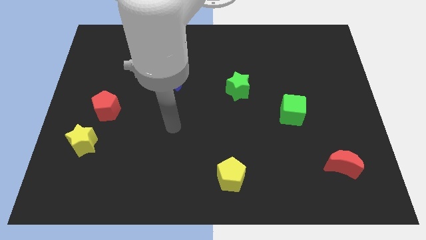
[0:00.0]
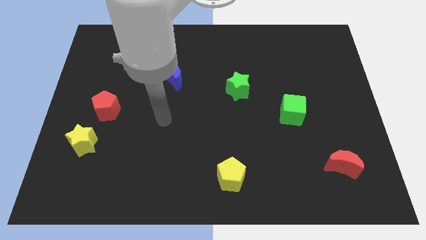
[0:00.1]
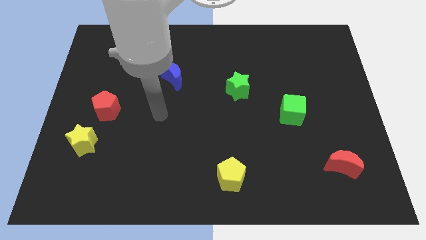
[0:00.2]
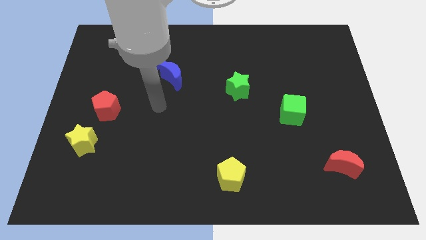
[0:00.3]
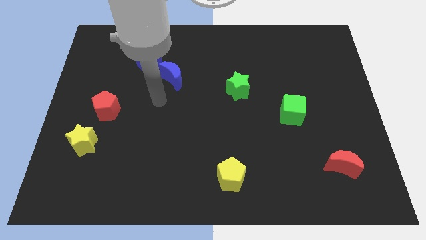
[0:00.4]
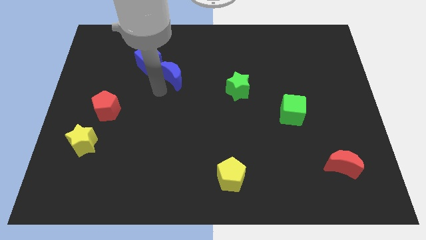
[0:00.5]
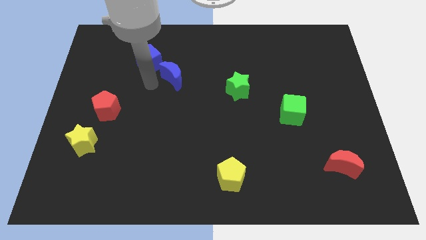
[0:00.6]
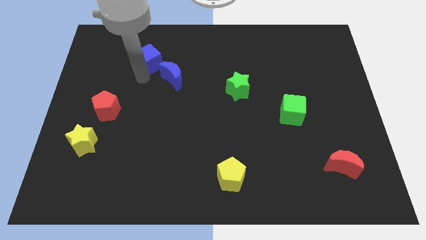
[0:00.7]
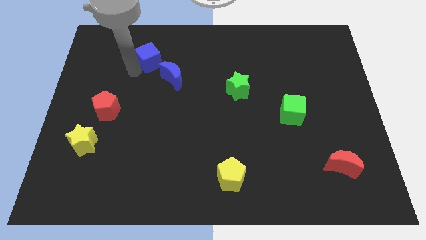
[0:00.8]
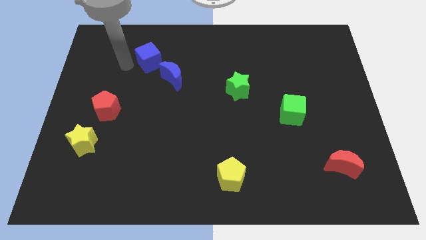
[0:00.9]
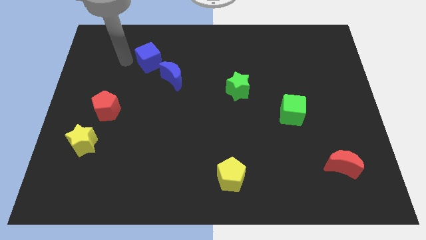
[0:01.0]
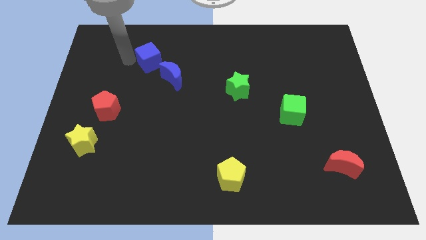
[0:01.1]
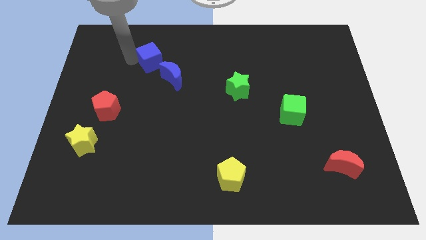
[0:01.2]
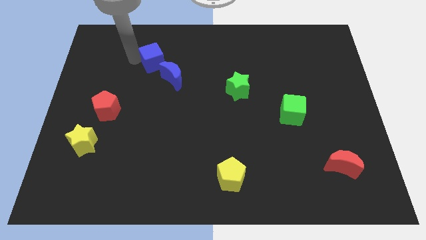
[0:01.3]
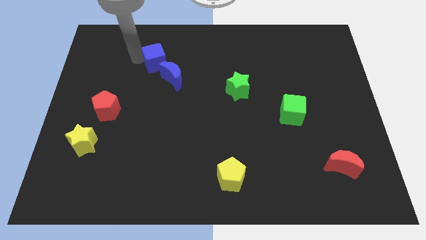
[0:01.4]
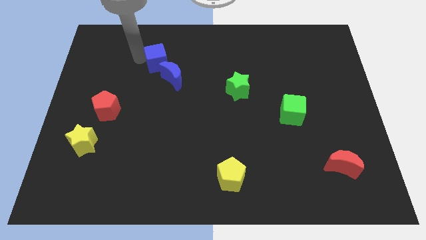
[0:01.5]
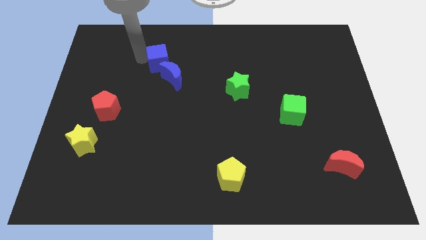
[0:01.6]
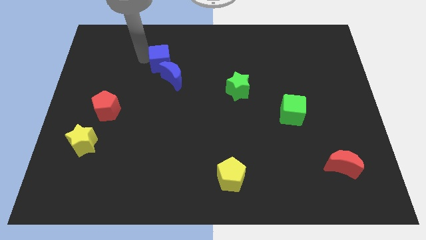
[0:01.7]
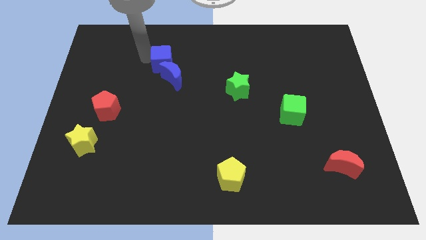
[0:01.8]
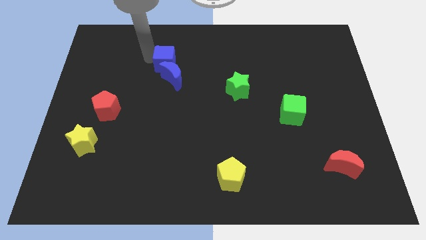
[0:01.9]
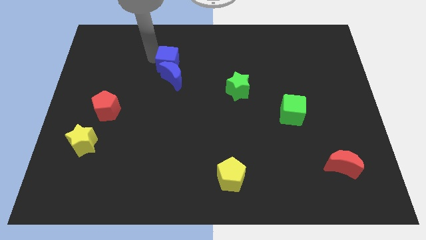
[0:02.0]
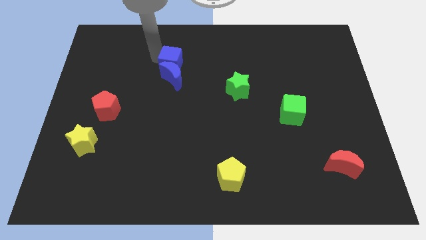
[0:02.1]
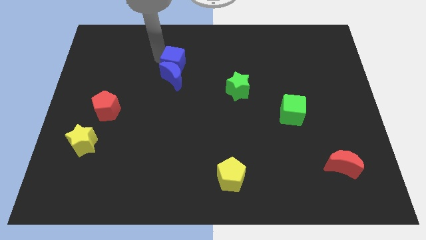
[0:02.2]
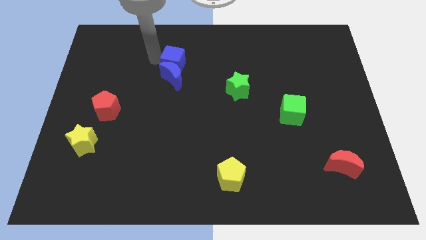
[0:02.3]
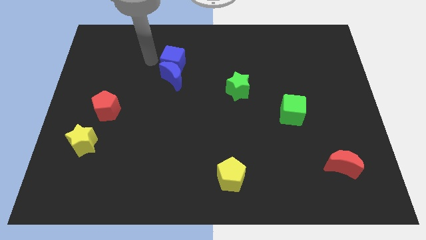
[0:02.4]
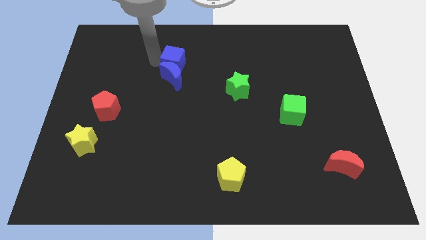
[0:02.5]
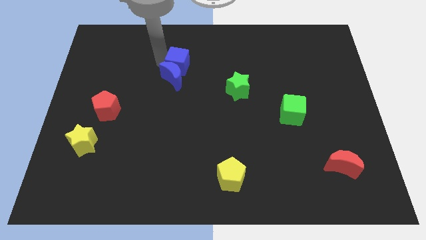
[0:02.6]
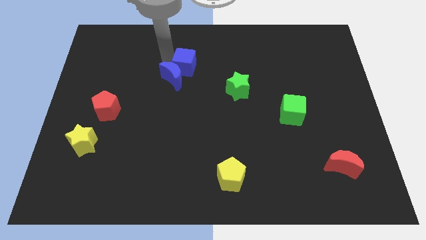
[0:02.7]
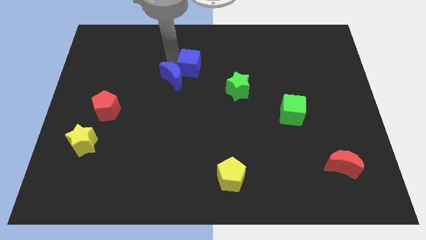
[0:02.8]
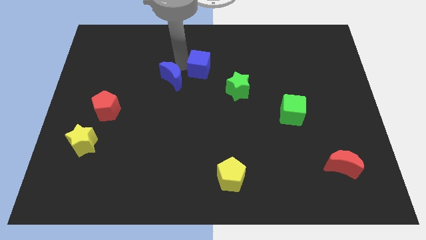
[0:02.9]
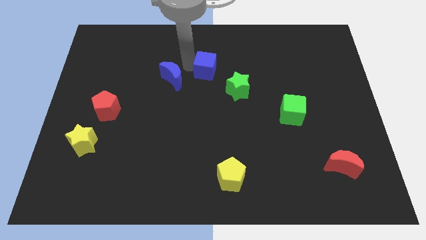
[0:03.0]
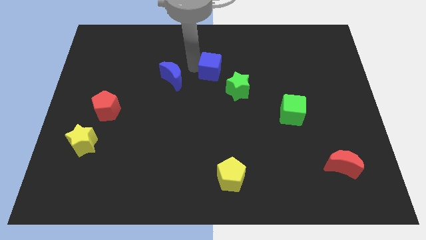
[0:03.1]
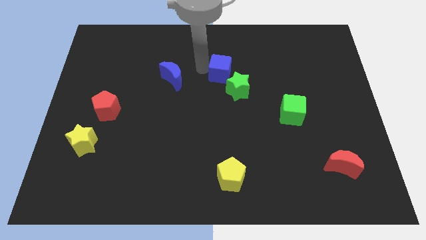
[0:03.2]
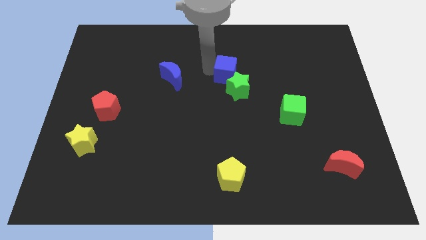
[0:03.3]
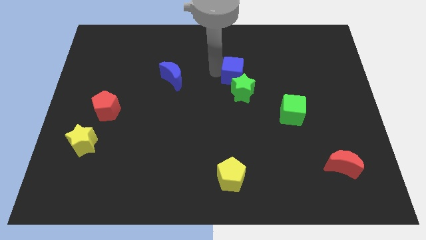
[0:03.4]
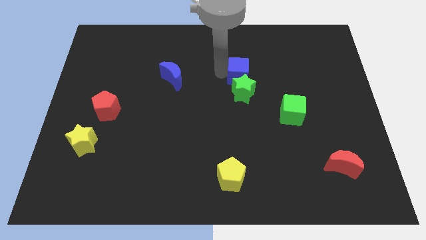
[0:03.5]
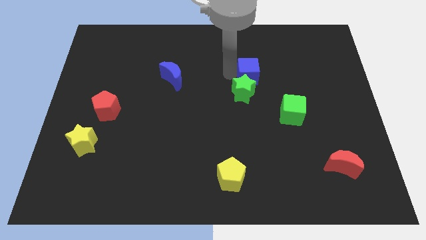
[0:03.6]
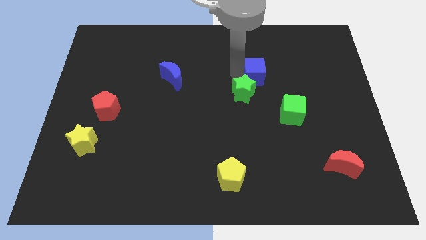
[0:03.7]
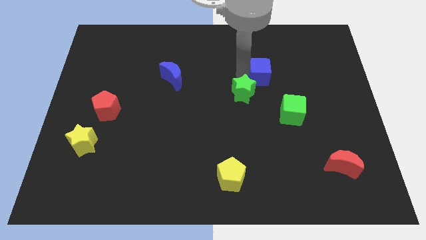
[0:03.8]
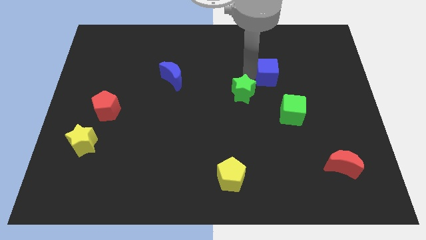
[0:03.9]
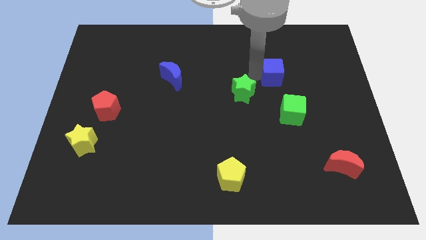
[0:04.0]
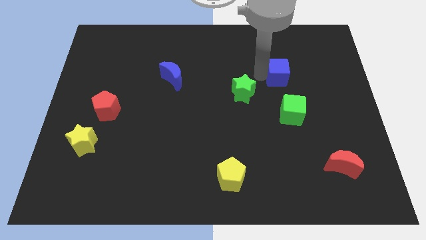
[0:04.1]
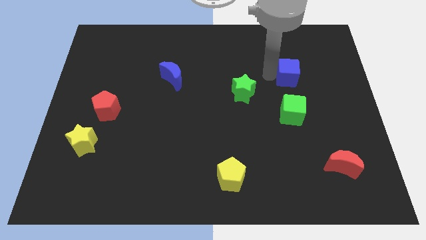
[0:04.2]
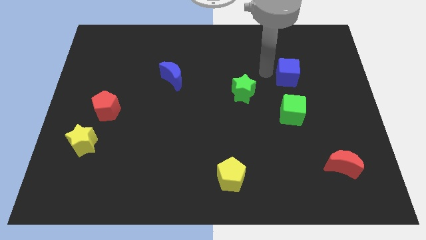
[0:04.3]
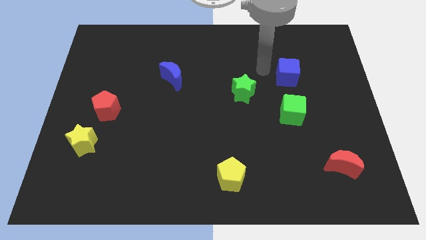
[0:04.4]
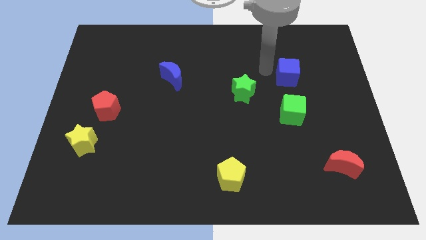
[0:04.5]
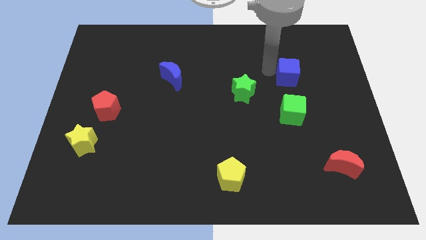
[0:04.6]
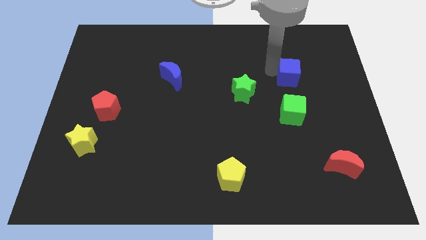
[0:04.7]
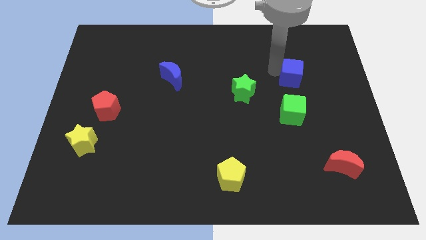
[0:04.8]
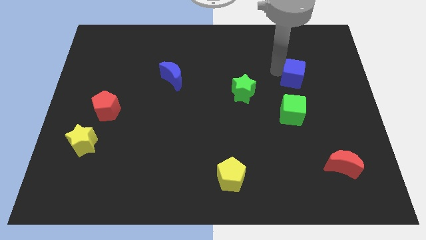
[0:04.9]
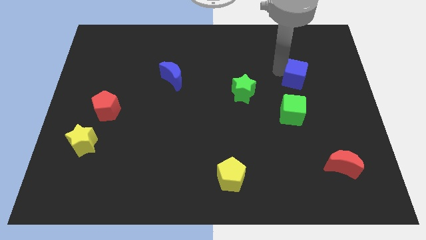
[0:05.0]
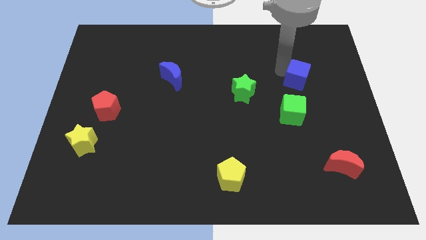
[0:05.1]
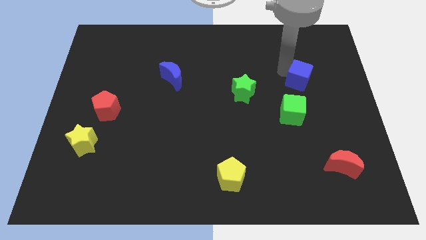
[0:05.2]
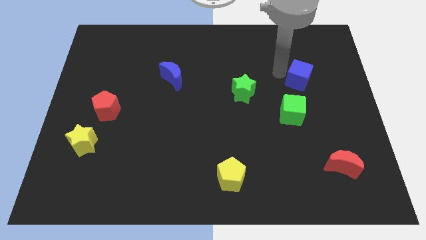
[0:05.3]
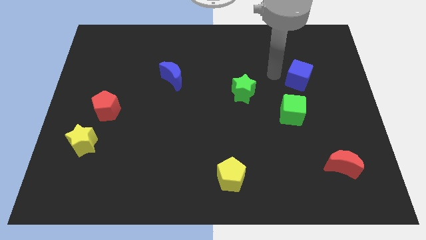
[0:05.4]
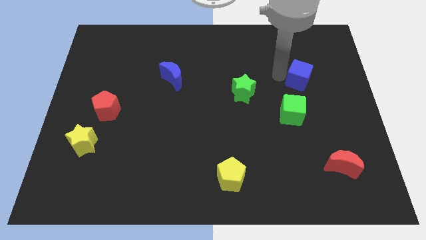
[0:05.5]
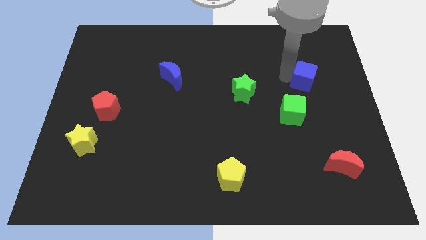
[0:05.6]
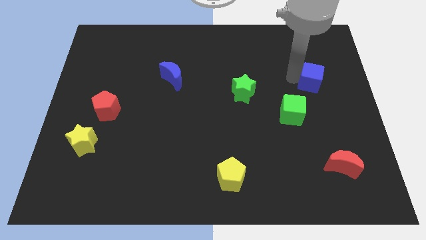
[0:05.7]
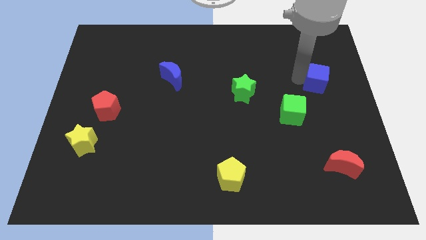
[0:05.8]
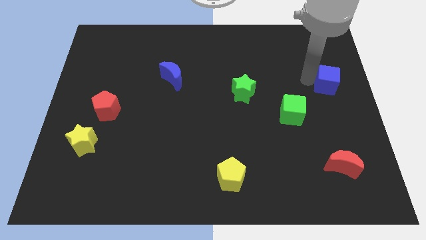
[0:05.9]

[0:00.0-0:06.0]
push the blue cube to the right side

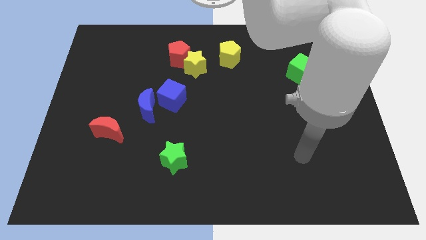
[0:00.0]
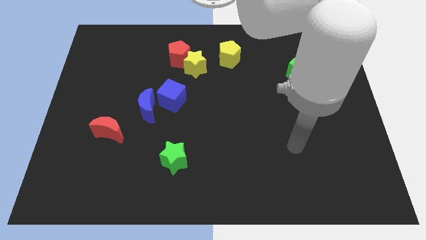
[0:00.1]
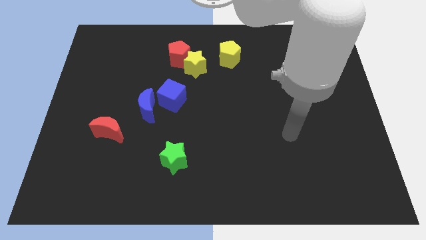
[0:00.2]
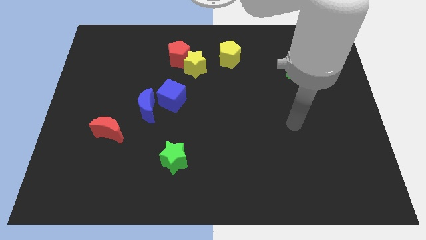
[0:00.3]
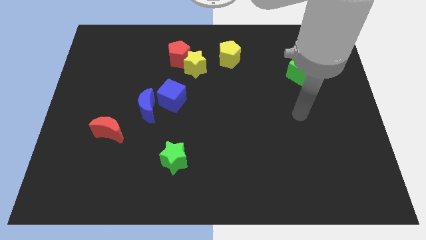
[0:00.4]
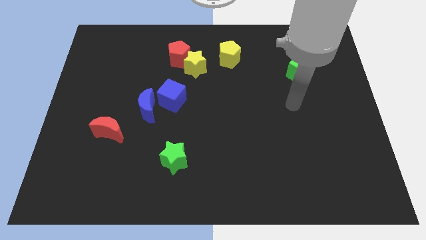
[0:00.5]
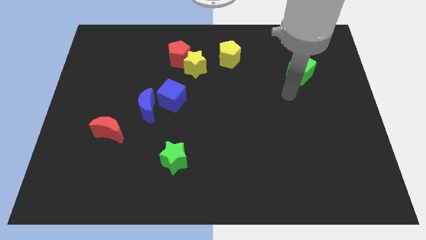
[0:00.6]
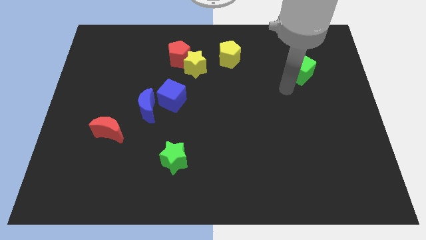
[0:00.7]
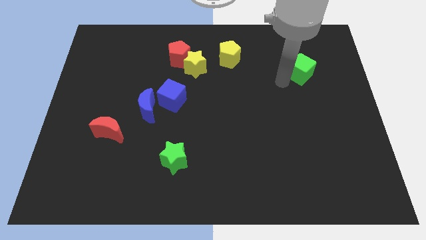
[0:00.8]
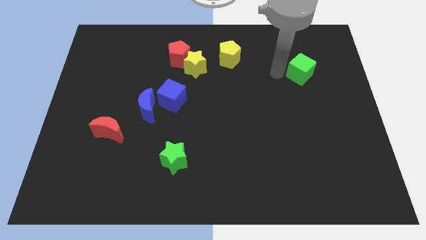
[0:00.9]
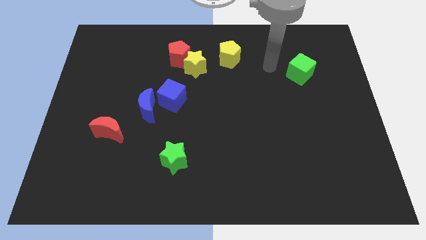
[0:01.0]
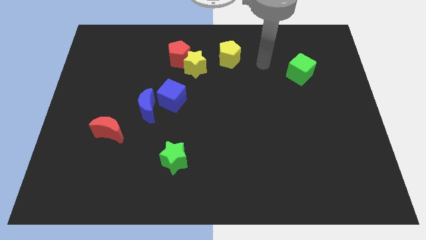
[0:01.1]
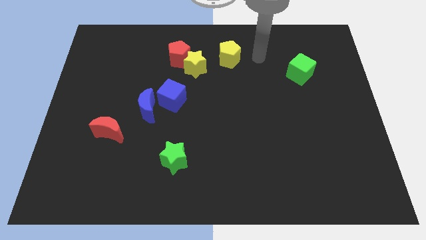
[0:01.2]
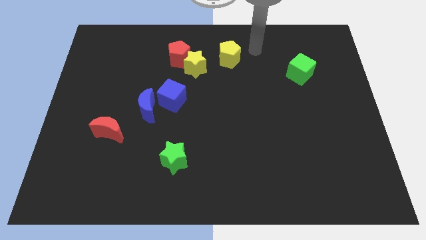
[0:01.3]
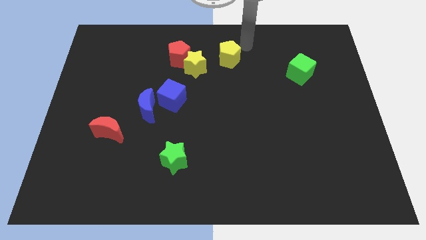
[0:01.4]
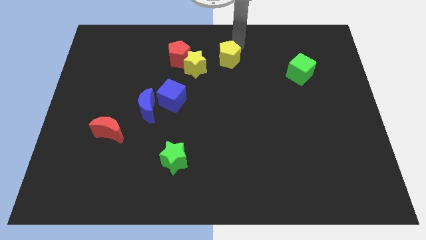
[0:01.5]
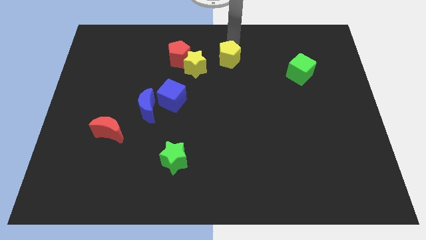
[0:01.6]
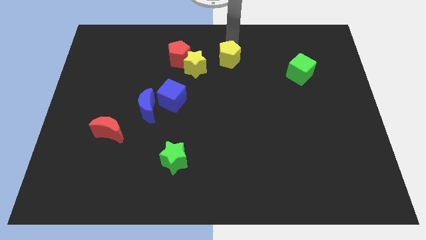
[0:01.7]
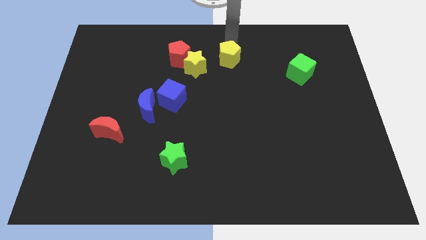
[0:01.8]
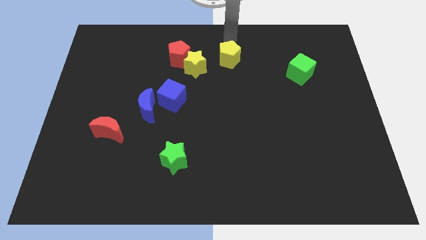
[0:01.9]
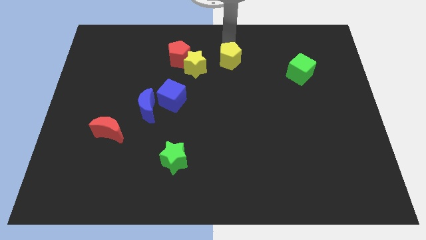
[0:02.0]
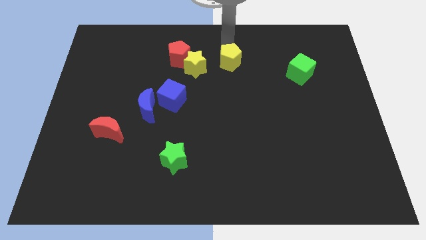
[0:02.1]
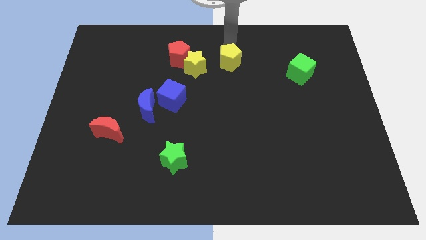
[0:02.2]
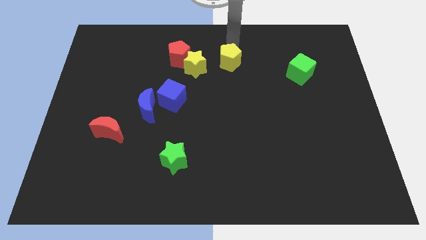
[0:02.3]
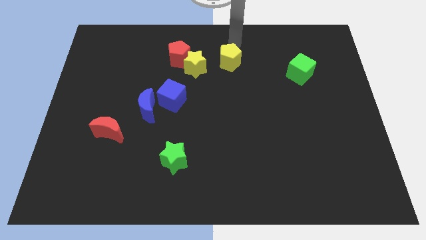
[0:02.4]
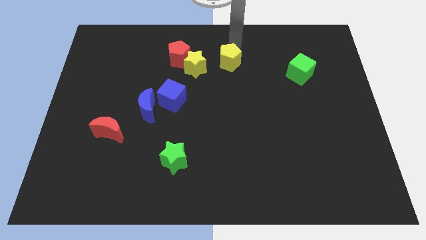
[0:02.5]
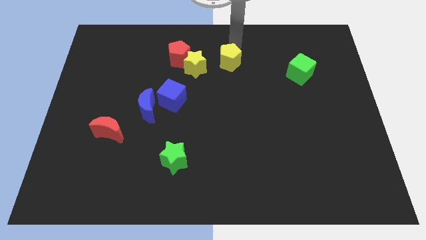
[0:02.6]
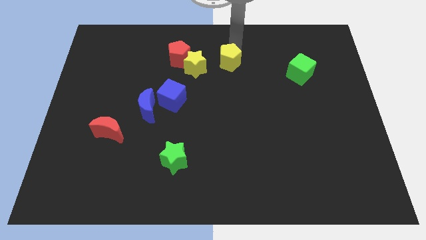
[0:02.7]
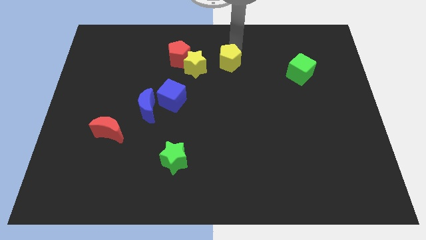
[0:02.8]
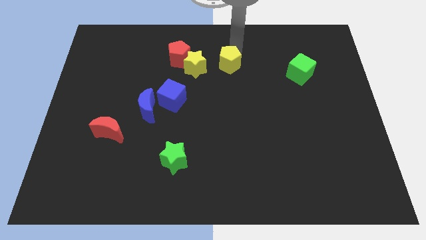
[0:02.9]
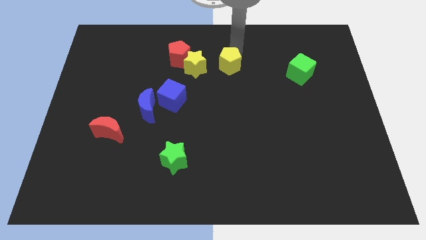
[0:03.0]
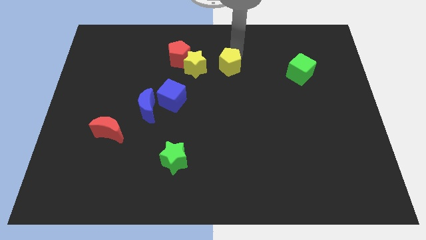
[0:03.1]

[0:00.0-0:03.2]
push the yellow pentagon to the middle
